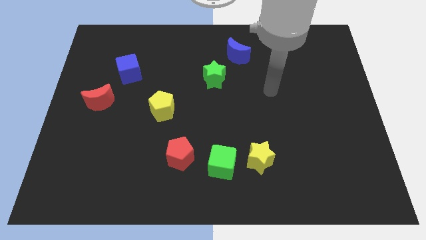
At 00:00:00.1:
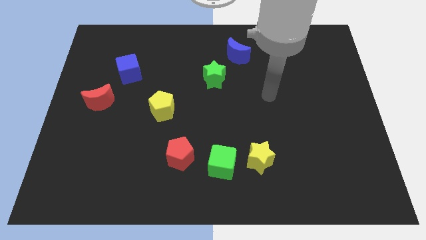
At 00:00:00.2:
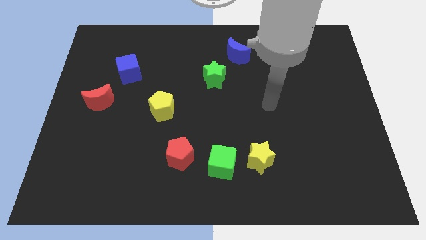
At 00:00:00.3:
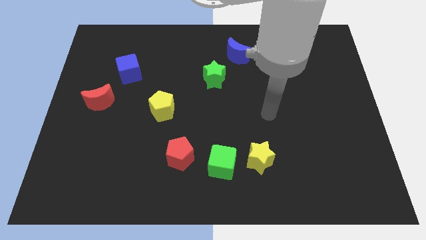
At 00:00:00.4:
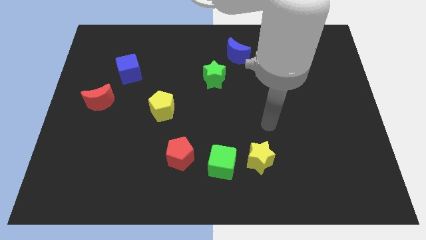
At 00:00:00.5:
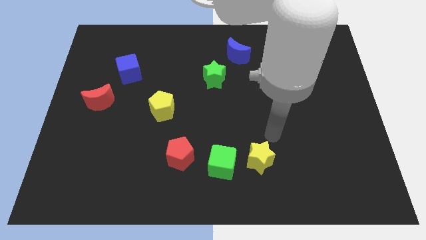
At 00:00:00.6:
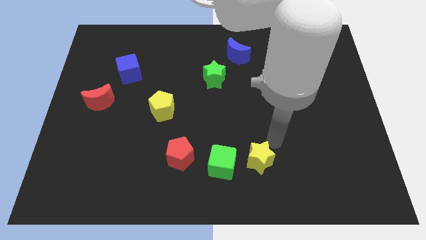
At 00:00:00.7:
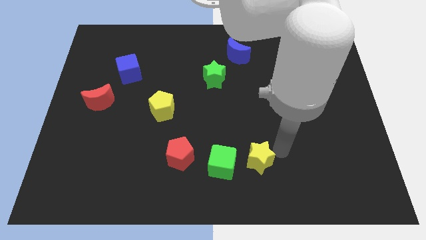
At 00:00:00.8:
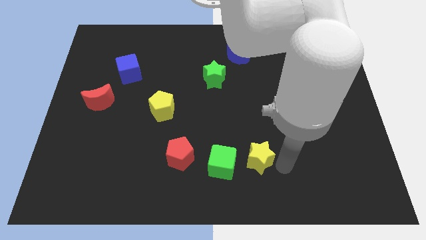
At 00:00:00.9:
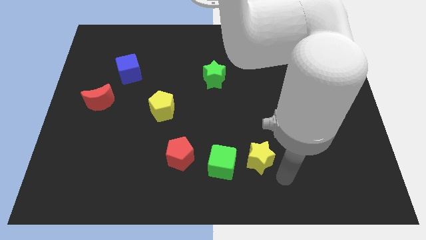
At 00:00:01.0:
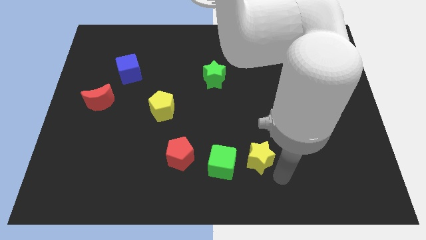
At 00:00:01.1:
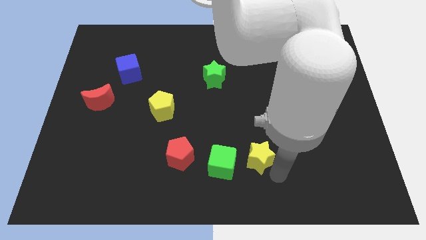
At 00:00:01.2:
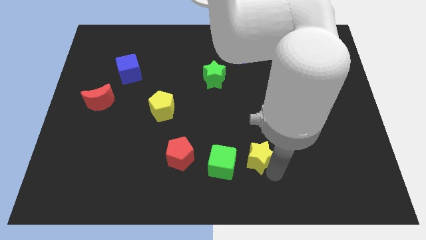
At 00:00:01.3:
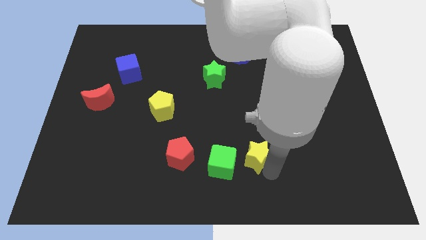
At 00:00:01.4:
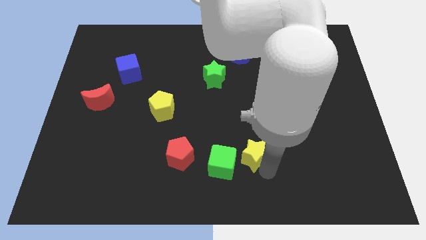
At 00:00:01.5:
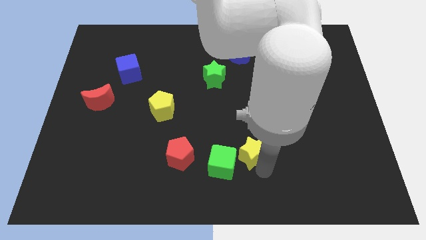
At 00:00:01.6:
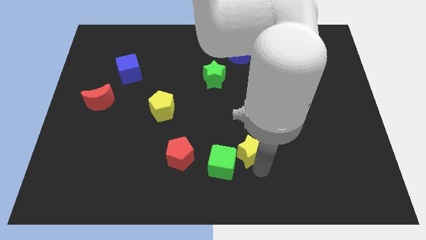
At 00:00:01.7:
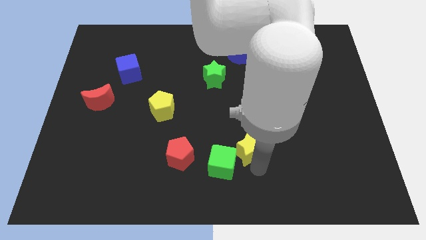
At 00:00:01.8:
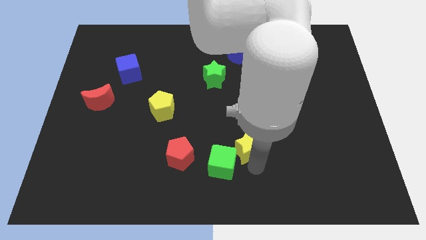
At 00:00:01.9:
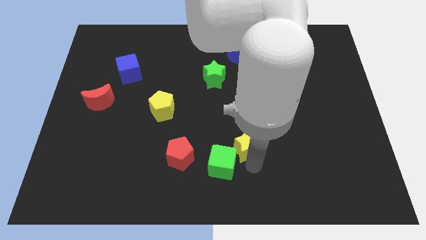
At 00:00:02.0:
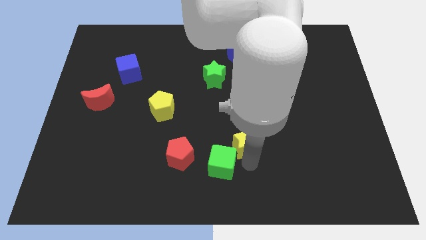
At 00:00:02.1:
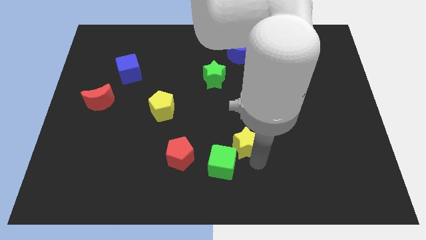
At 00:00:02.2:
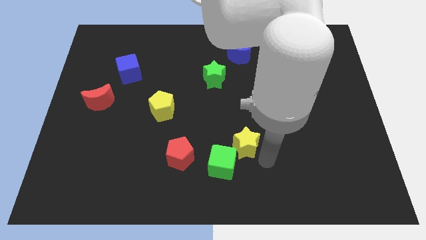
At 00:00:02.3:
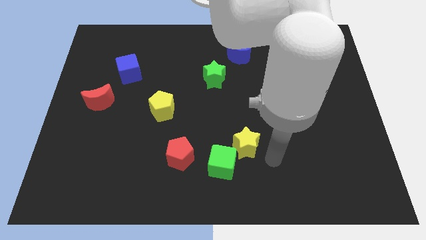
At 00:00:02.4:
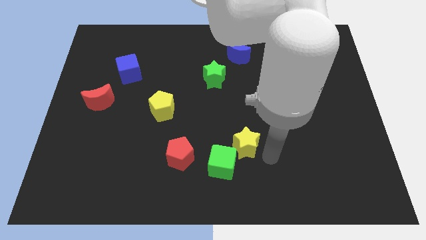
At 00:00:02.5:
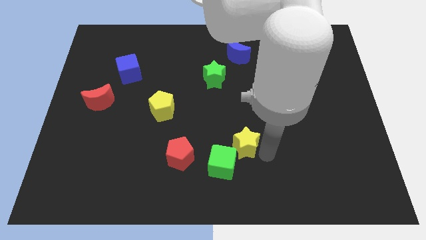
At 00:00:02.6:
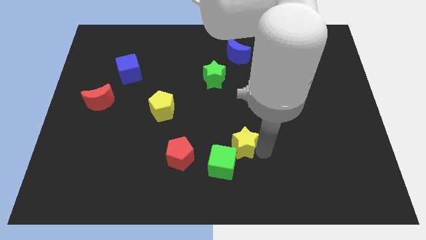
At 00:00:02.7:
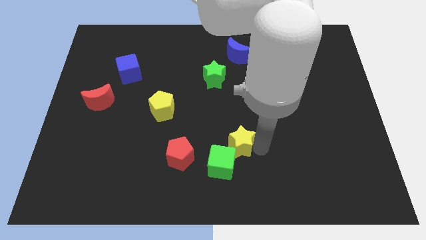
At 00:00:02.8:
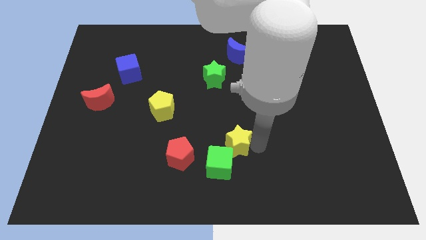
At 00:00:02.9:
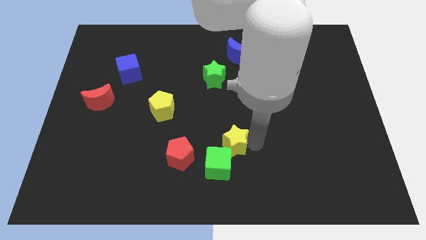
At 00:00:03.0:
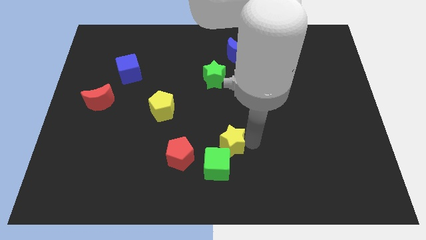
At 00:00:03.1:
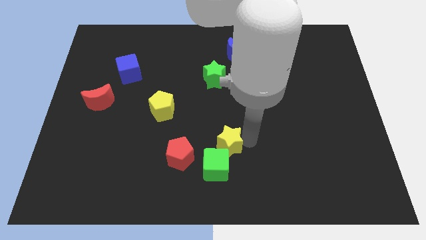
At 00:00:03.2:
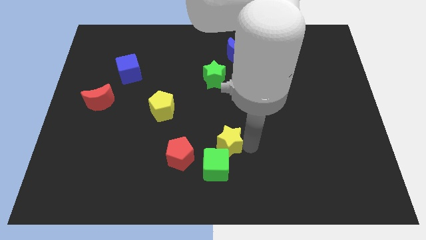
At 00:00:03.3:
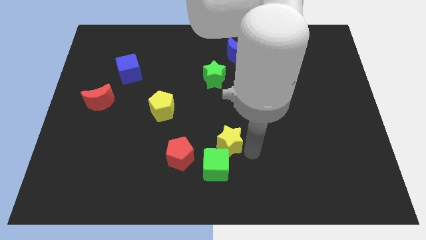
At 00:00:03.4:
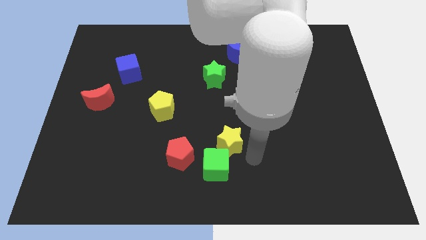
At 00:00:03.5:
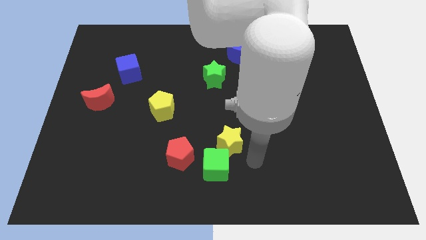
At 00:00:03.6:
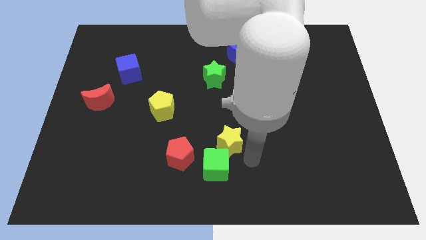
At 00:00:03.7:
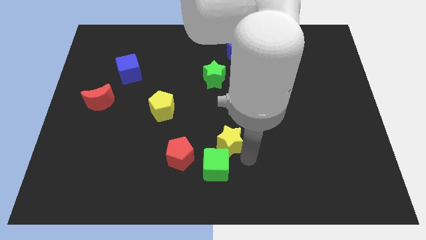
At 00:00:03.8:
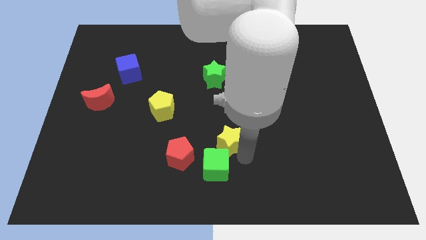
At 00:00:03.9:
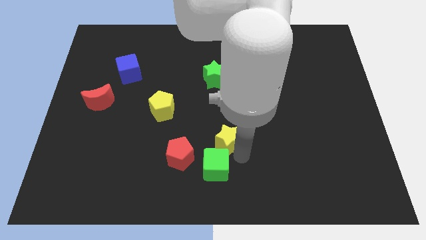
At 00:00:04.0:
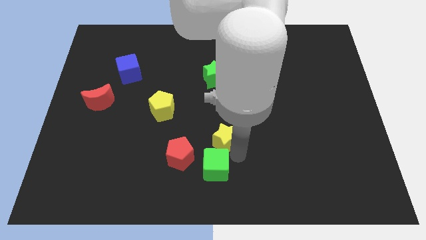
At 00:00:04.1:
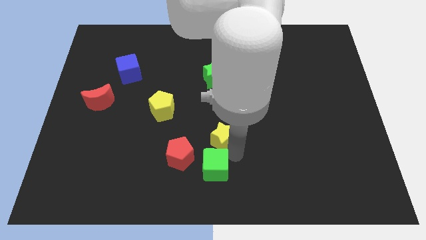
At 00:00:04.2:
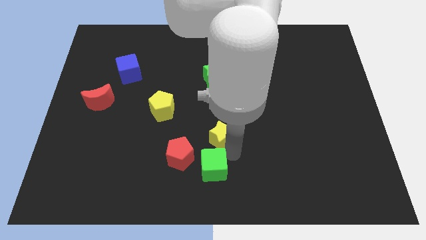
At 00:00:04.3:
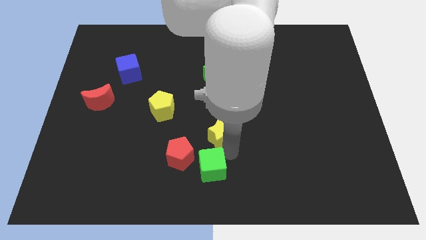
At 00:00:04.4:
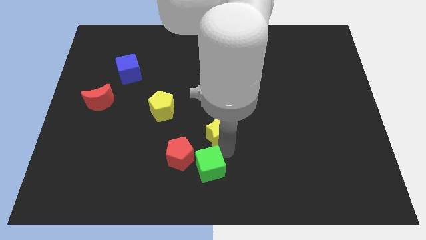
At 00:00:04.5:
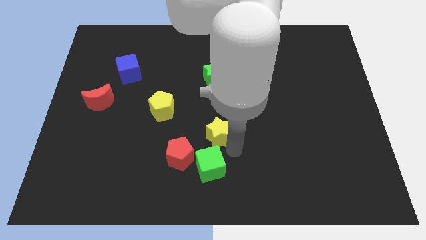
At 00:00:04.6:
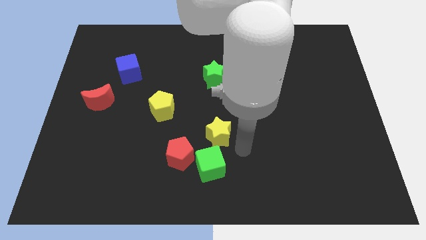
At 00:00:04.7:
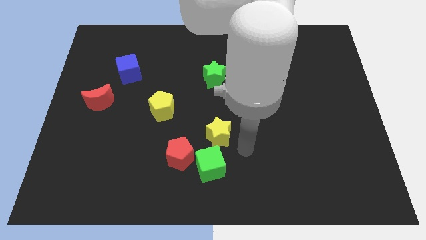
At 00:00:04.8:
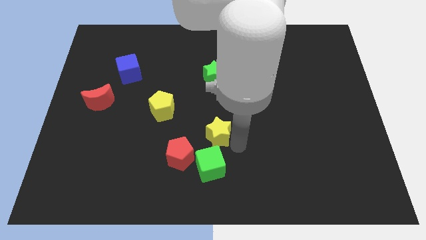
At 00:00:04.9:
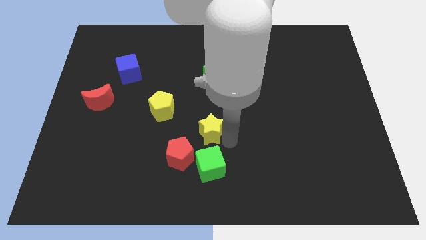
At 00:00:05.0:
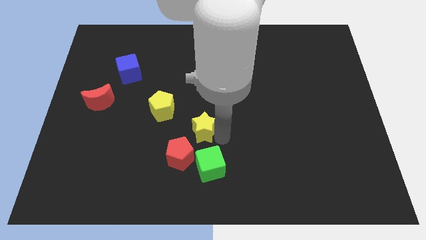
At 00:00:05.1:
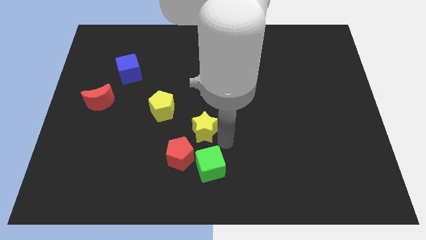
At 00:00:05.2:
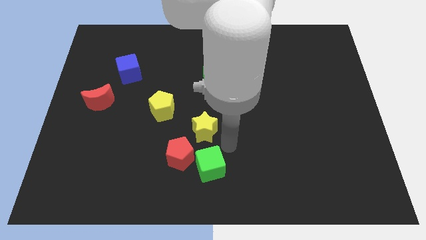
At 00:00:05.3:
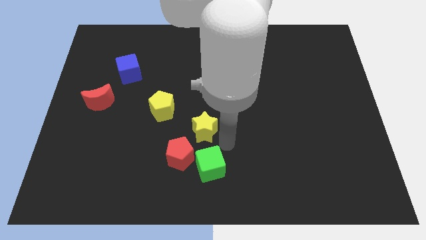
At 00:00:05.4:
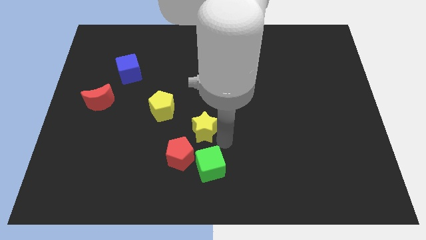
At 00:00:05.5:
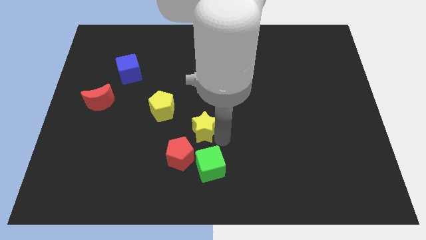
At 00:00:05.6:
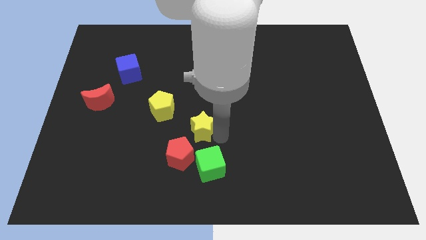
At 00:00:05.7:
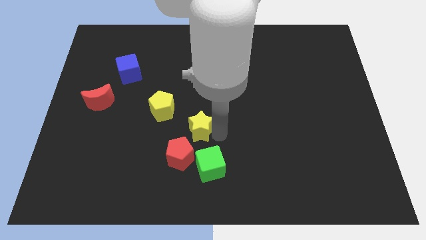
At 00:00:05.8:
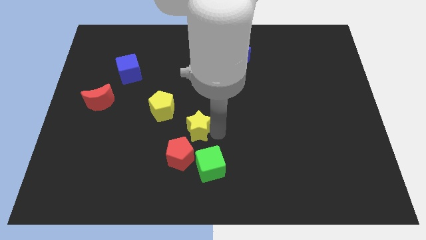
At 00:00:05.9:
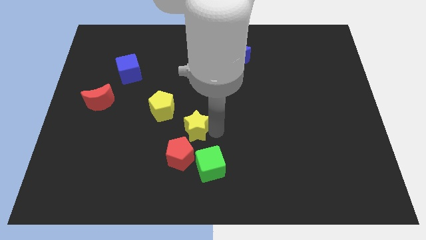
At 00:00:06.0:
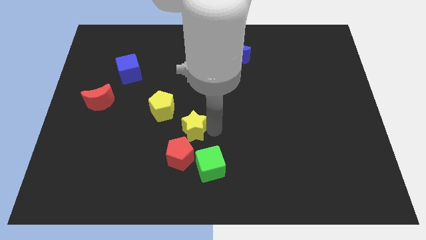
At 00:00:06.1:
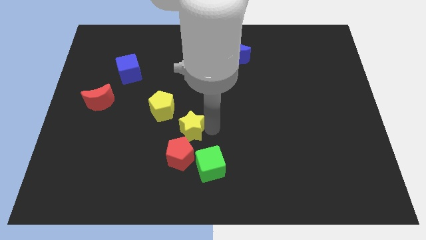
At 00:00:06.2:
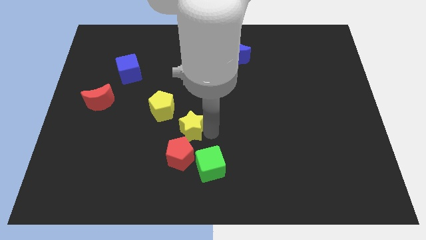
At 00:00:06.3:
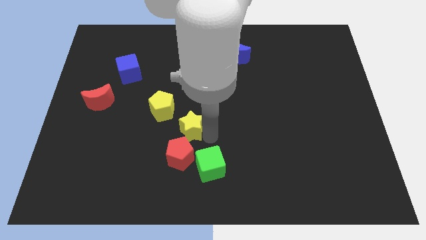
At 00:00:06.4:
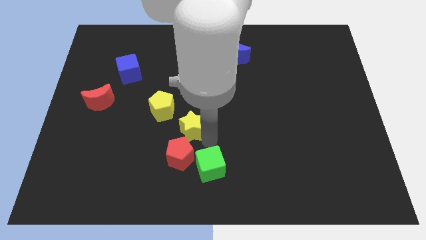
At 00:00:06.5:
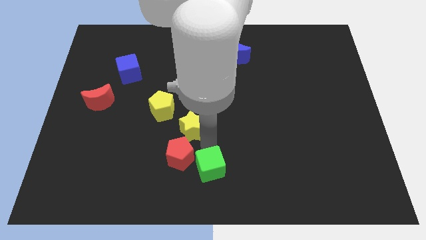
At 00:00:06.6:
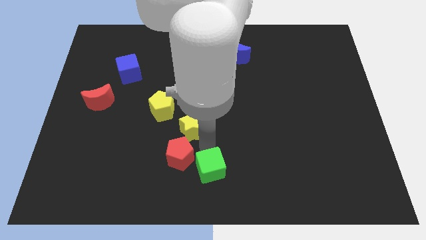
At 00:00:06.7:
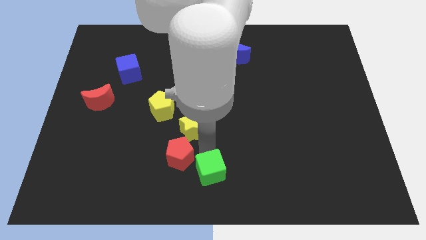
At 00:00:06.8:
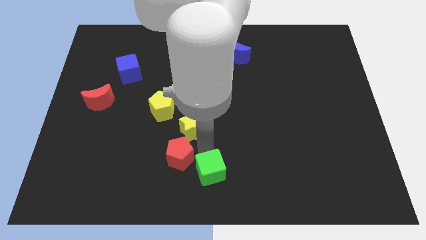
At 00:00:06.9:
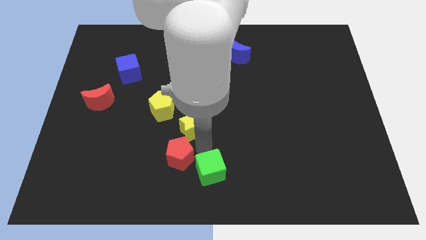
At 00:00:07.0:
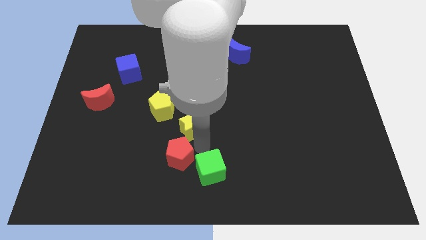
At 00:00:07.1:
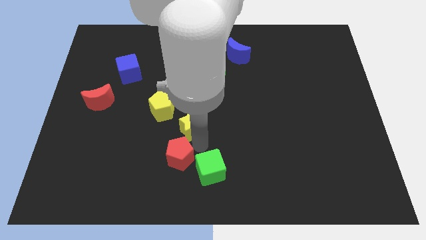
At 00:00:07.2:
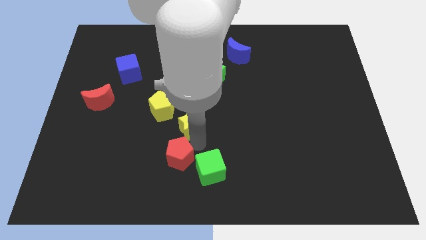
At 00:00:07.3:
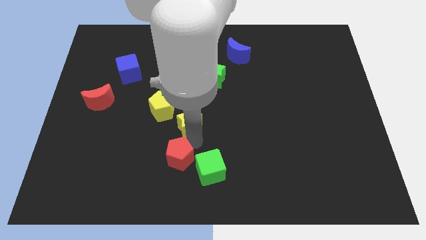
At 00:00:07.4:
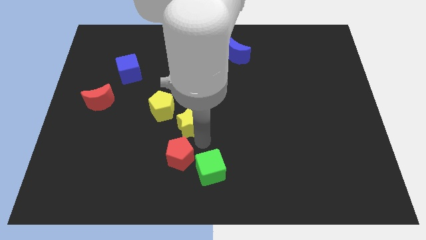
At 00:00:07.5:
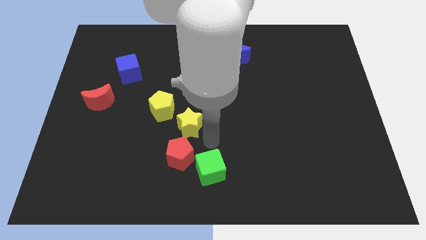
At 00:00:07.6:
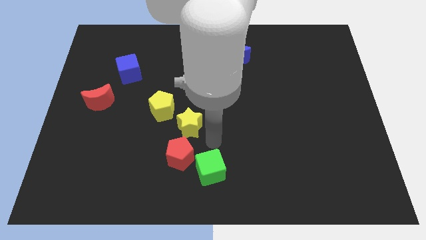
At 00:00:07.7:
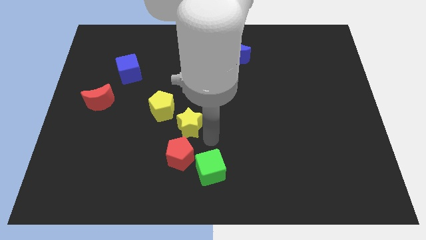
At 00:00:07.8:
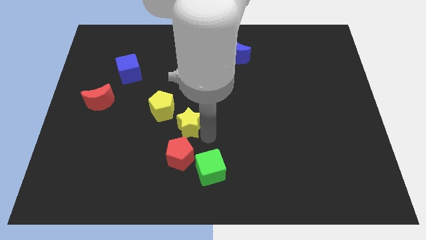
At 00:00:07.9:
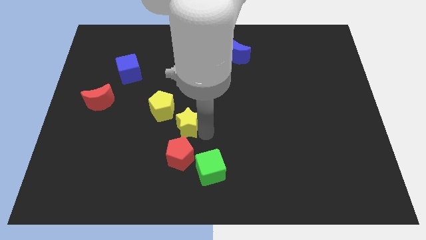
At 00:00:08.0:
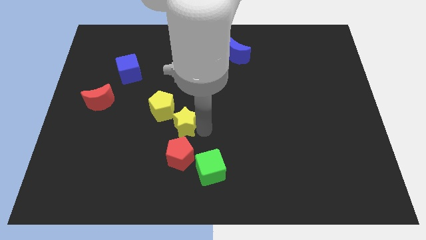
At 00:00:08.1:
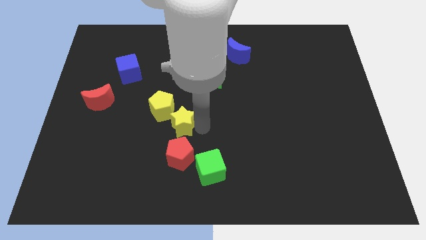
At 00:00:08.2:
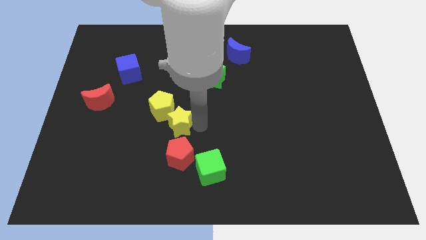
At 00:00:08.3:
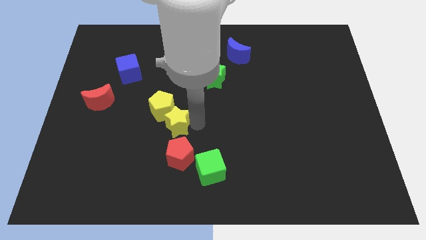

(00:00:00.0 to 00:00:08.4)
slide the yellow star towards the yellow pentagon
